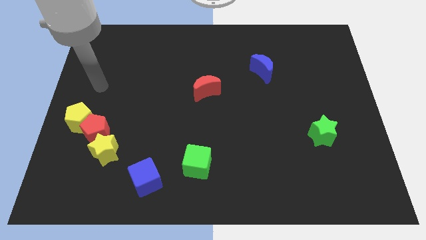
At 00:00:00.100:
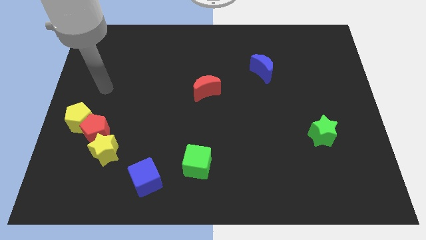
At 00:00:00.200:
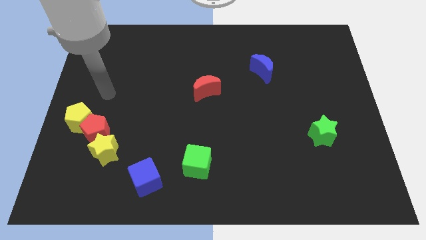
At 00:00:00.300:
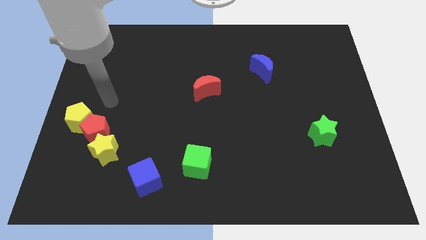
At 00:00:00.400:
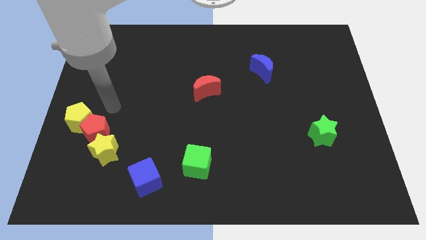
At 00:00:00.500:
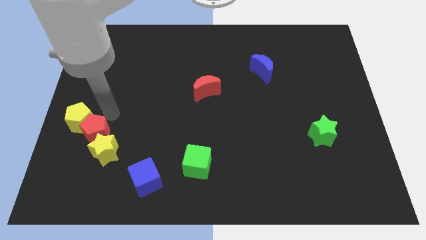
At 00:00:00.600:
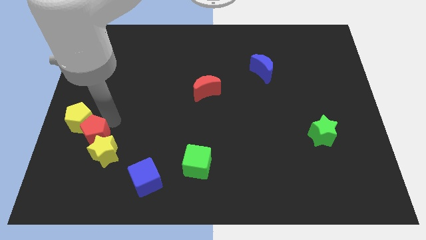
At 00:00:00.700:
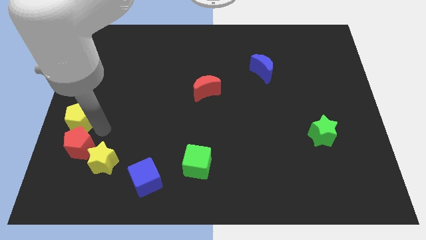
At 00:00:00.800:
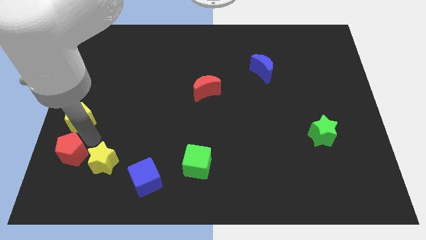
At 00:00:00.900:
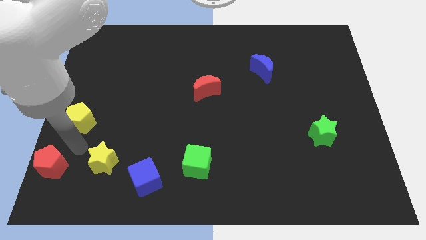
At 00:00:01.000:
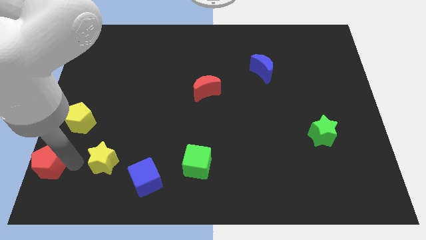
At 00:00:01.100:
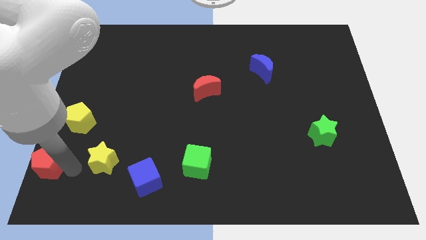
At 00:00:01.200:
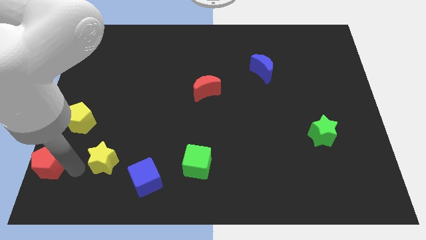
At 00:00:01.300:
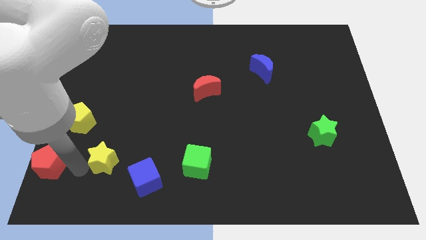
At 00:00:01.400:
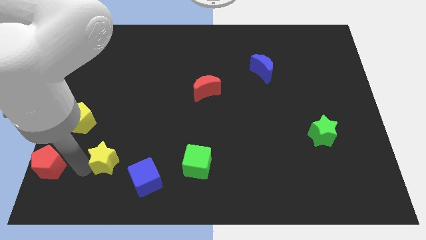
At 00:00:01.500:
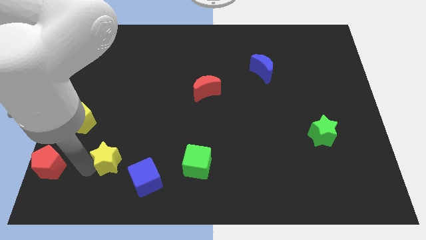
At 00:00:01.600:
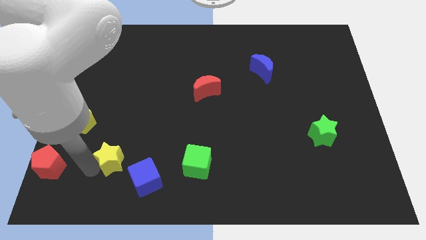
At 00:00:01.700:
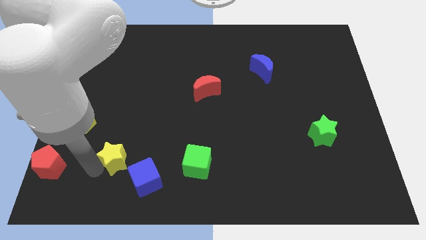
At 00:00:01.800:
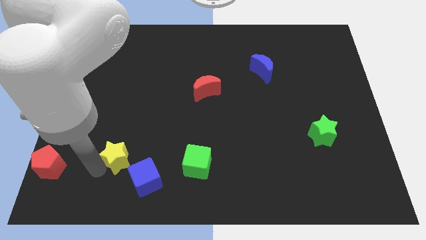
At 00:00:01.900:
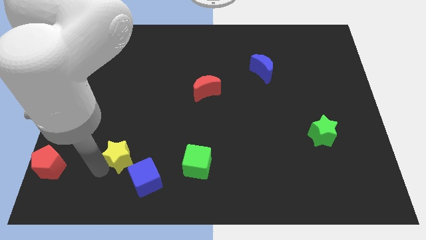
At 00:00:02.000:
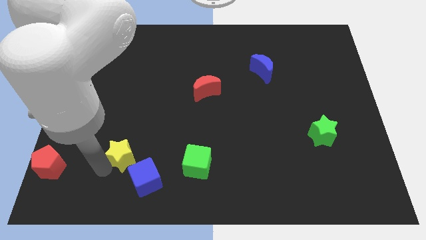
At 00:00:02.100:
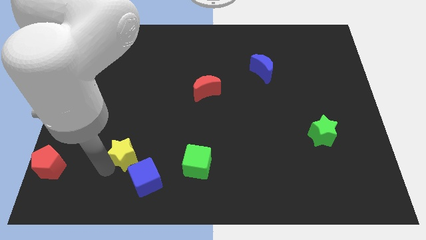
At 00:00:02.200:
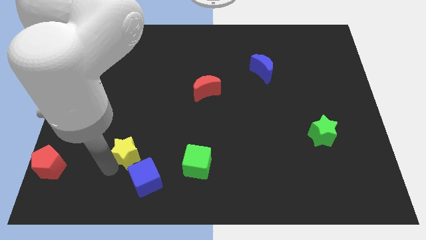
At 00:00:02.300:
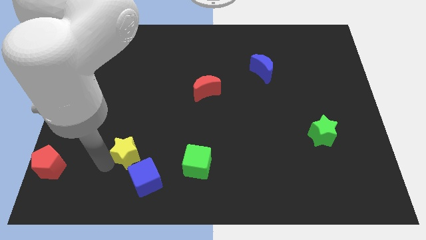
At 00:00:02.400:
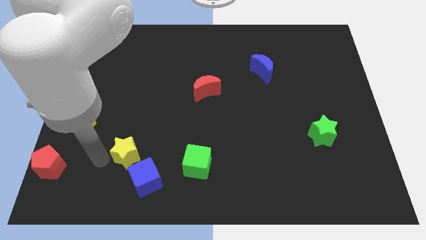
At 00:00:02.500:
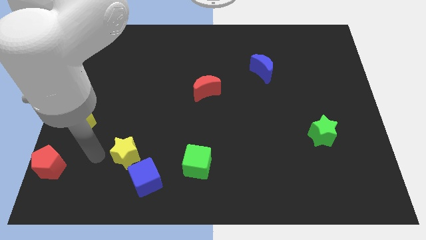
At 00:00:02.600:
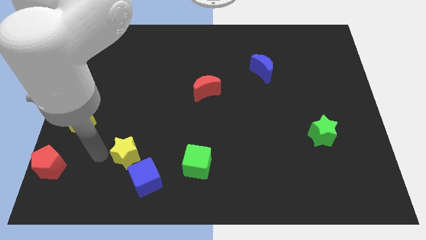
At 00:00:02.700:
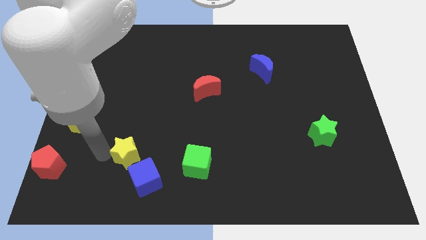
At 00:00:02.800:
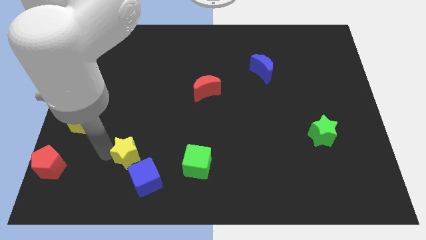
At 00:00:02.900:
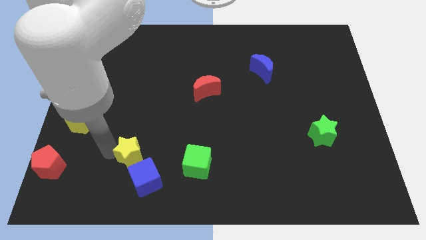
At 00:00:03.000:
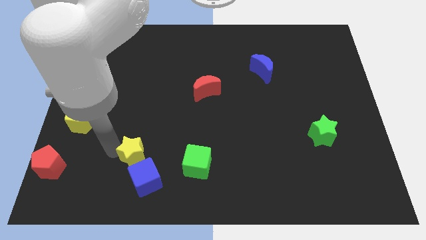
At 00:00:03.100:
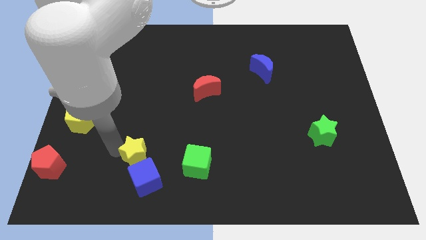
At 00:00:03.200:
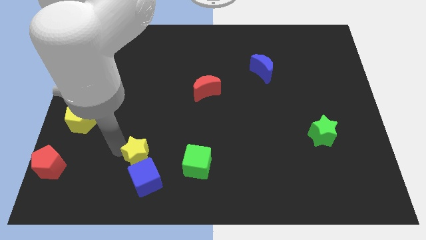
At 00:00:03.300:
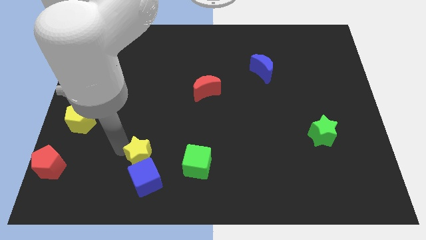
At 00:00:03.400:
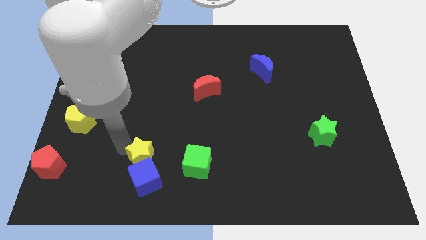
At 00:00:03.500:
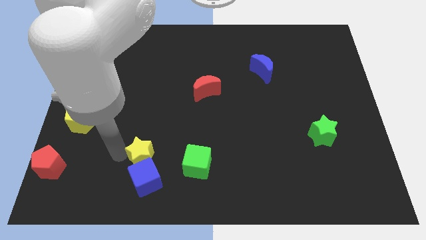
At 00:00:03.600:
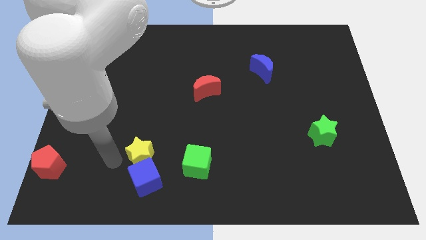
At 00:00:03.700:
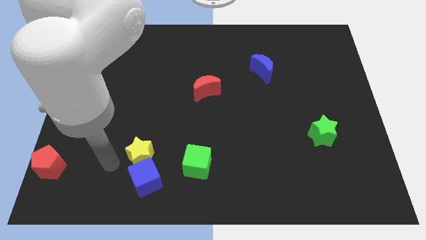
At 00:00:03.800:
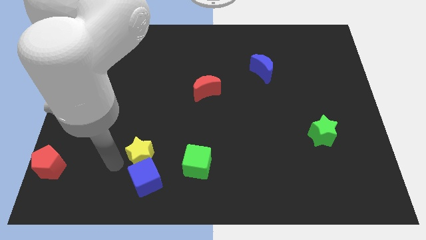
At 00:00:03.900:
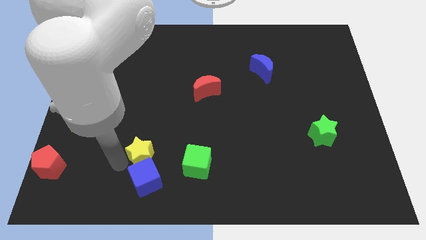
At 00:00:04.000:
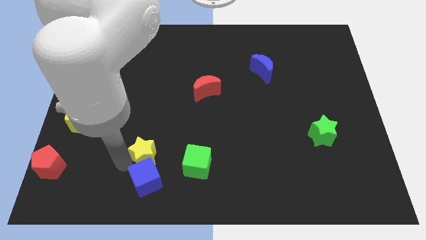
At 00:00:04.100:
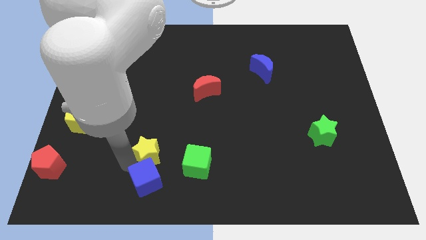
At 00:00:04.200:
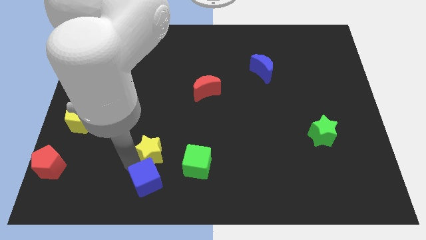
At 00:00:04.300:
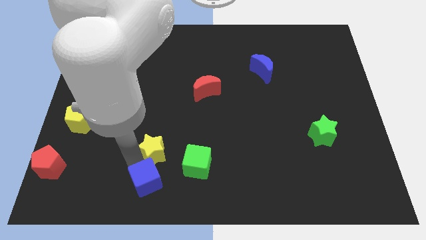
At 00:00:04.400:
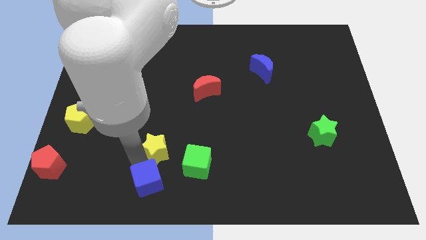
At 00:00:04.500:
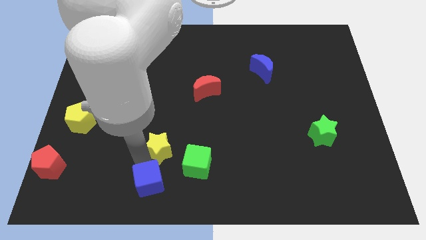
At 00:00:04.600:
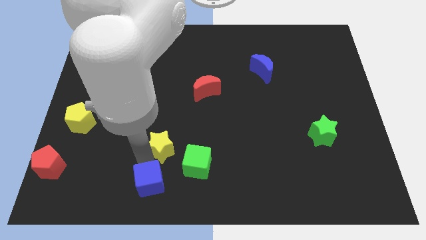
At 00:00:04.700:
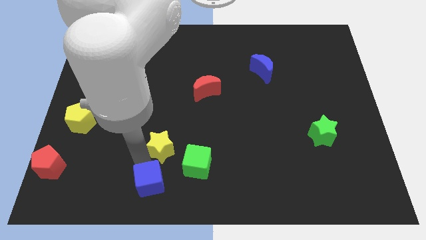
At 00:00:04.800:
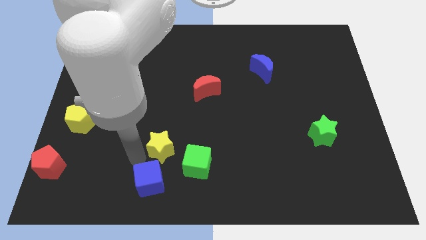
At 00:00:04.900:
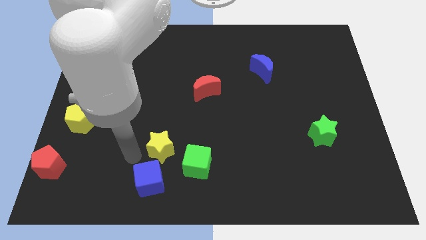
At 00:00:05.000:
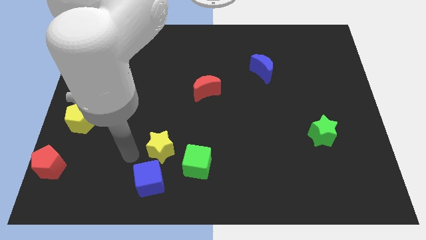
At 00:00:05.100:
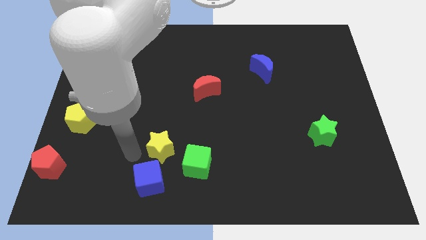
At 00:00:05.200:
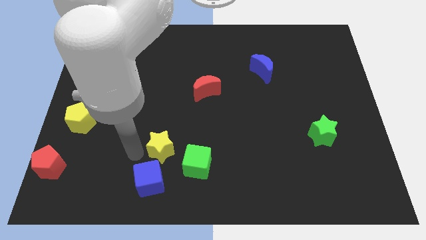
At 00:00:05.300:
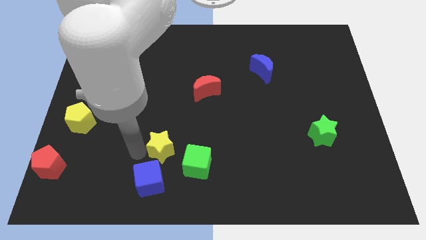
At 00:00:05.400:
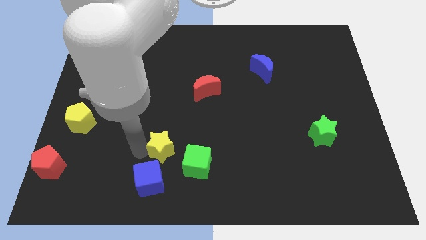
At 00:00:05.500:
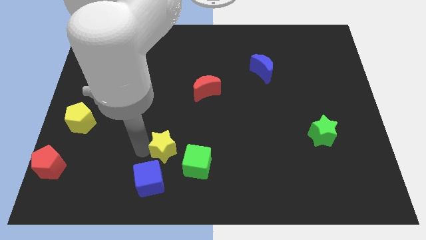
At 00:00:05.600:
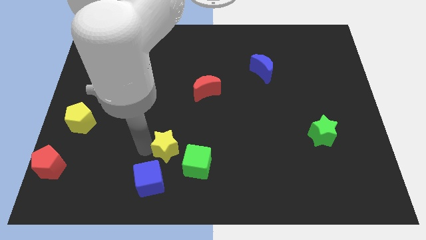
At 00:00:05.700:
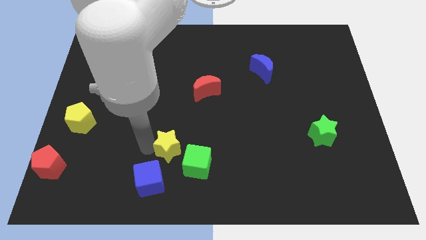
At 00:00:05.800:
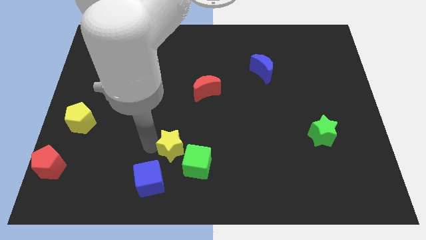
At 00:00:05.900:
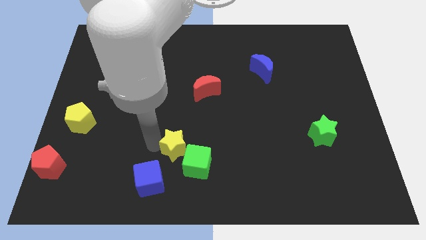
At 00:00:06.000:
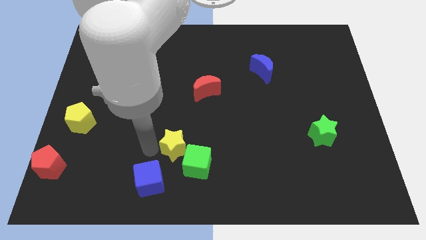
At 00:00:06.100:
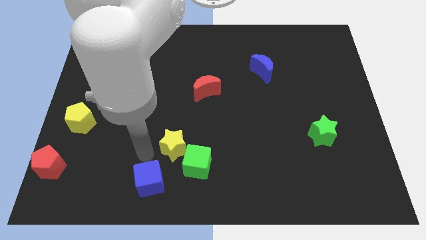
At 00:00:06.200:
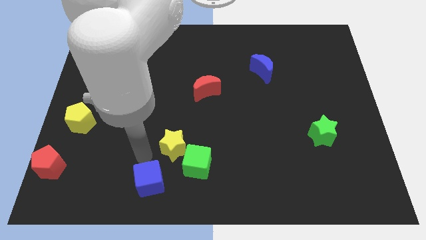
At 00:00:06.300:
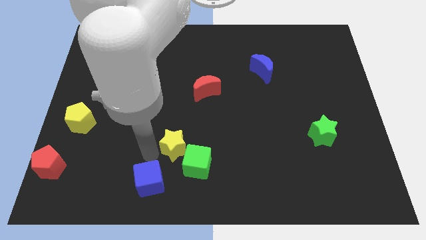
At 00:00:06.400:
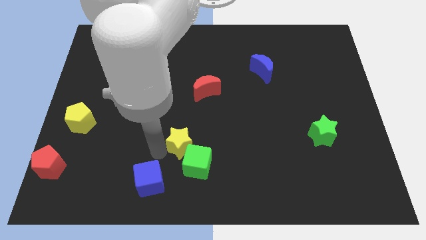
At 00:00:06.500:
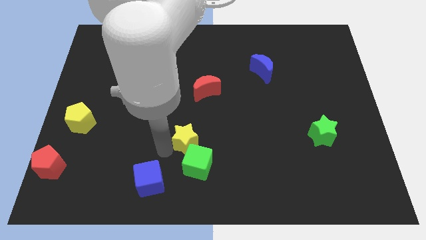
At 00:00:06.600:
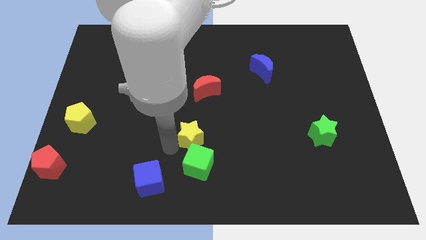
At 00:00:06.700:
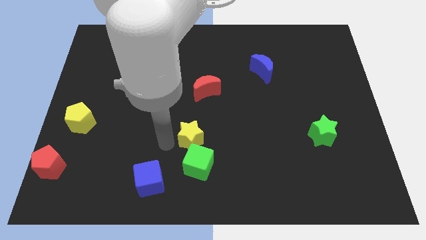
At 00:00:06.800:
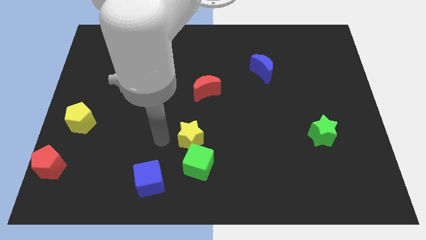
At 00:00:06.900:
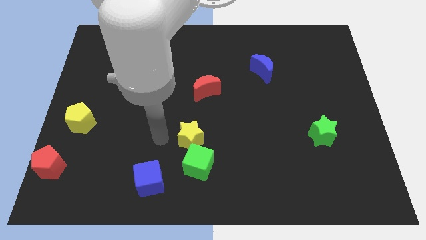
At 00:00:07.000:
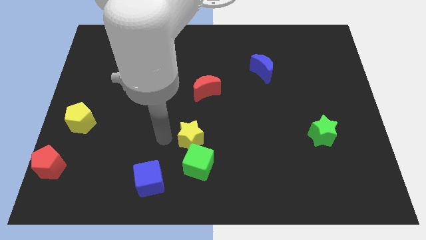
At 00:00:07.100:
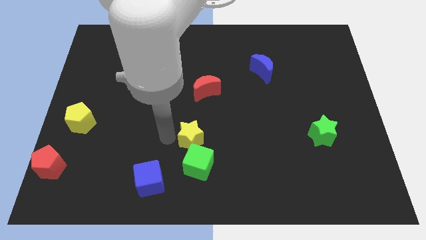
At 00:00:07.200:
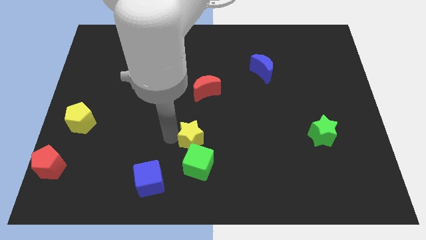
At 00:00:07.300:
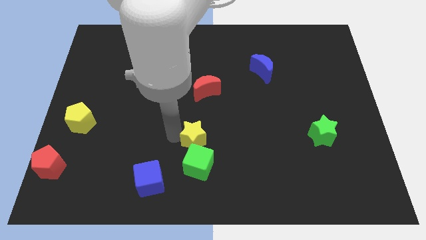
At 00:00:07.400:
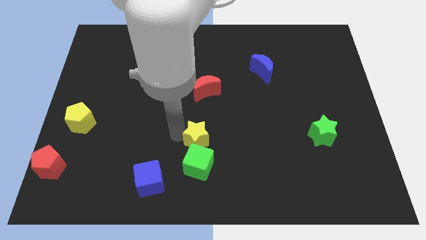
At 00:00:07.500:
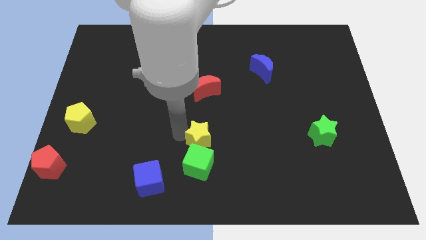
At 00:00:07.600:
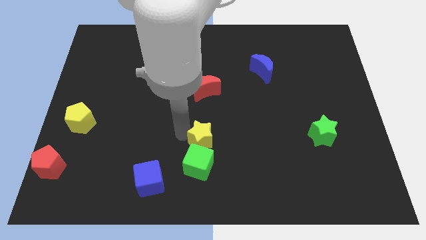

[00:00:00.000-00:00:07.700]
move the yellow star to the right

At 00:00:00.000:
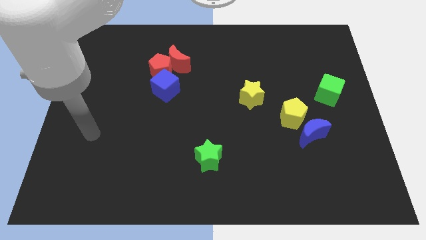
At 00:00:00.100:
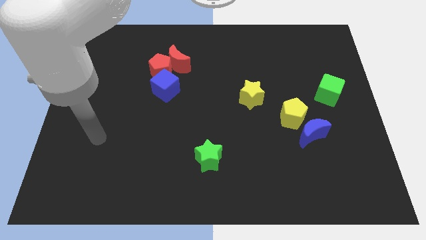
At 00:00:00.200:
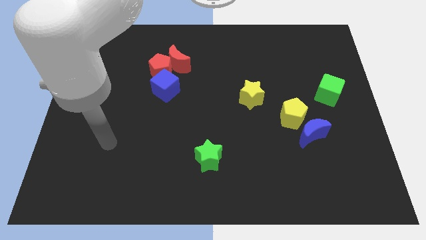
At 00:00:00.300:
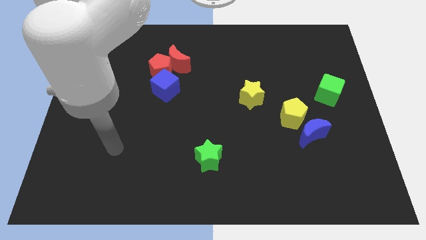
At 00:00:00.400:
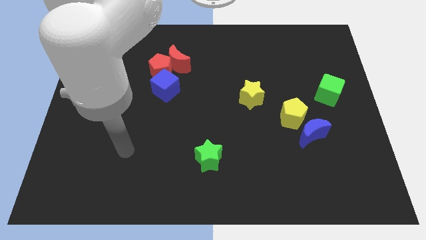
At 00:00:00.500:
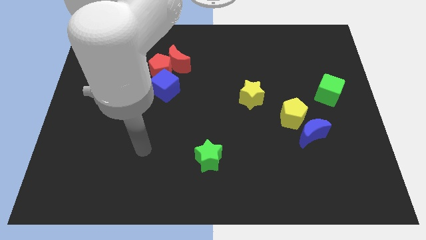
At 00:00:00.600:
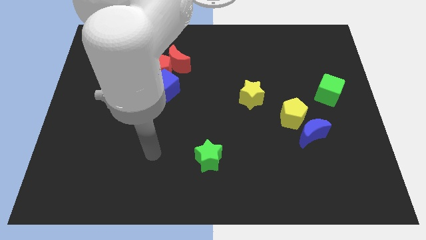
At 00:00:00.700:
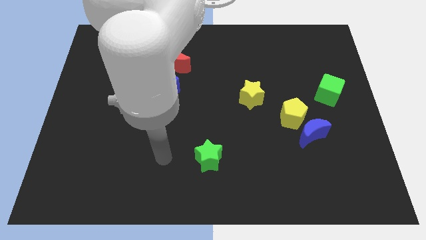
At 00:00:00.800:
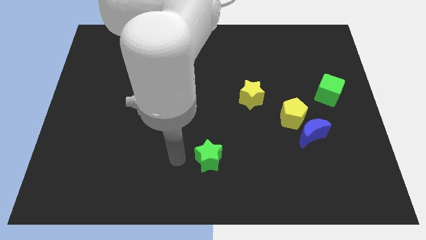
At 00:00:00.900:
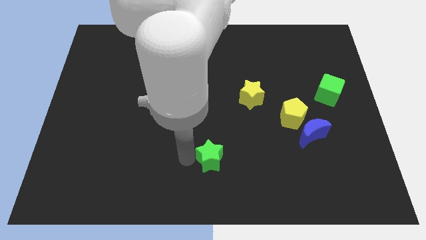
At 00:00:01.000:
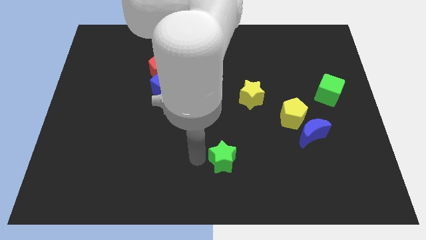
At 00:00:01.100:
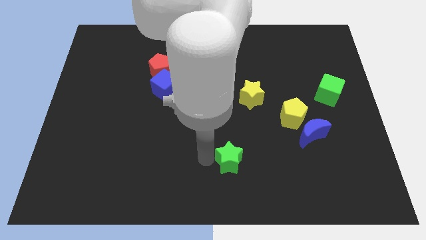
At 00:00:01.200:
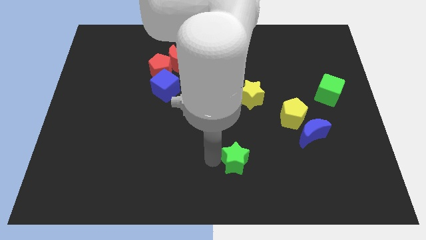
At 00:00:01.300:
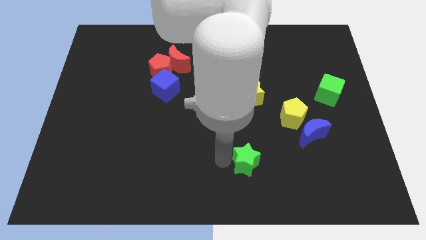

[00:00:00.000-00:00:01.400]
slightly slide the green star to the right
